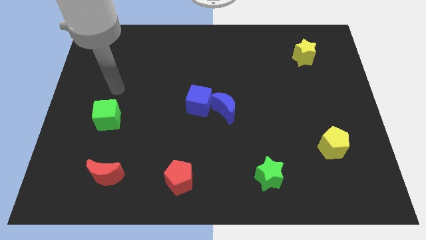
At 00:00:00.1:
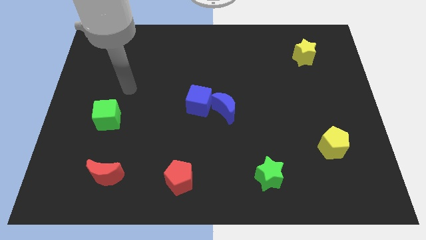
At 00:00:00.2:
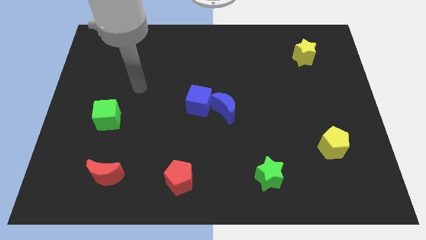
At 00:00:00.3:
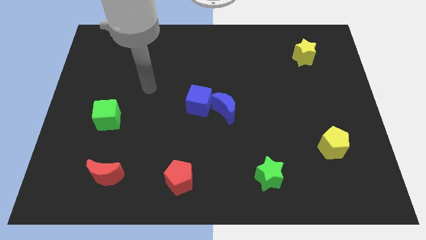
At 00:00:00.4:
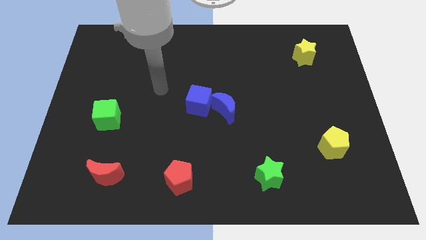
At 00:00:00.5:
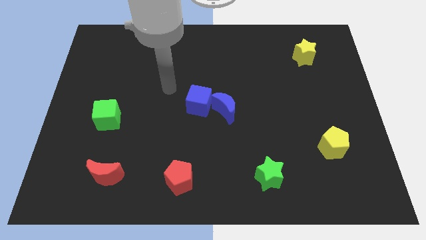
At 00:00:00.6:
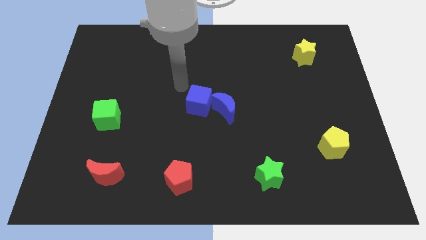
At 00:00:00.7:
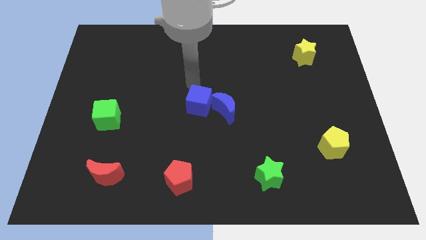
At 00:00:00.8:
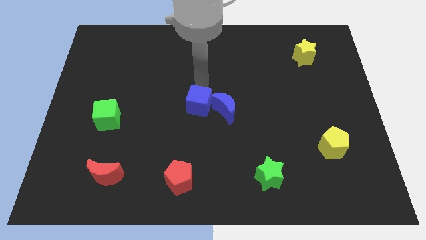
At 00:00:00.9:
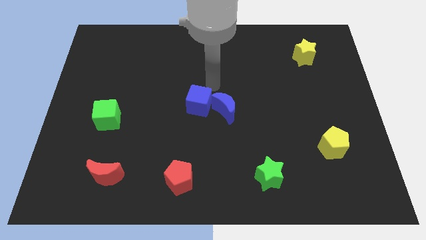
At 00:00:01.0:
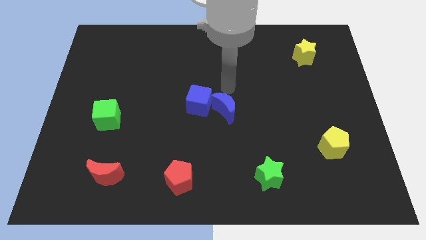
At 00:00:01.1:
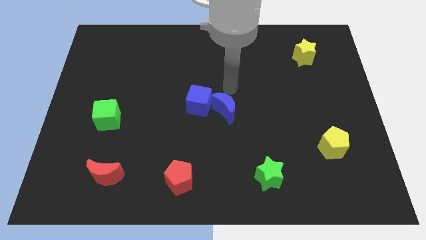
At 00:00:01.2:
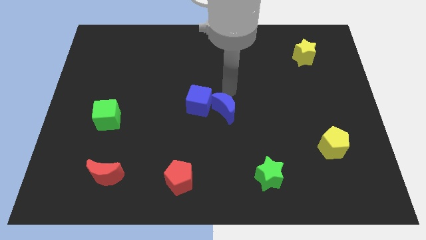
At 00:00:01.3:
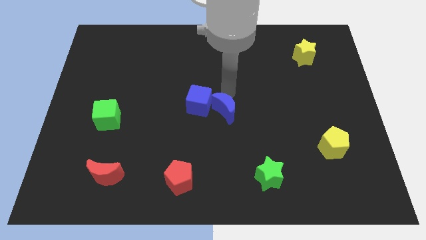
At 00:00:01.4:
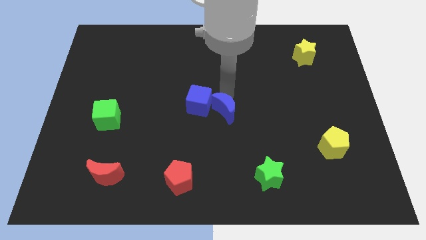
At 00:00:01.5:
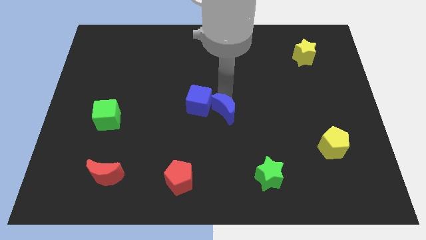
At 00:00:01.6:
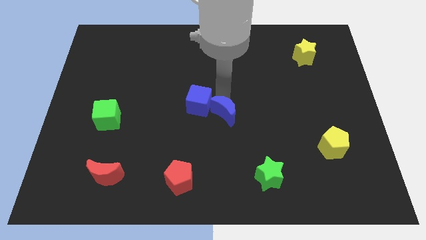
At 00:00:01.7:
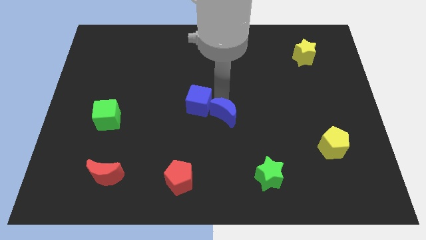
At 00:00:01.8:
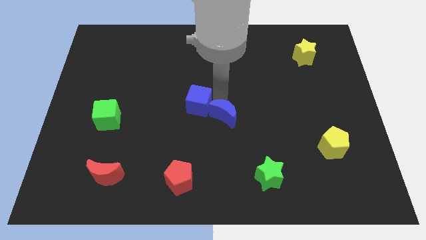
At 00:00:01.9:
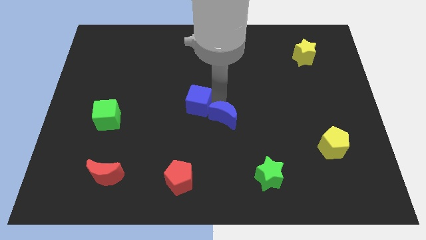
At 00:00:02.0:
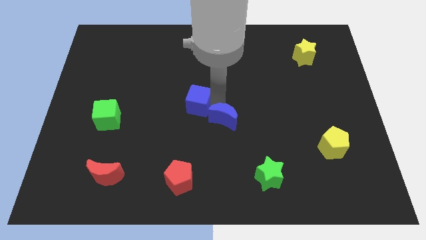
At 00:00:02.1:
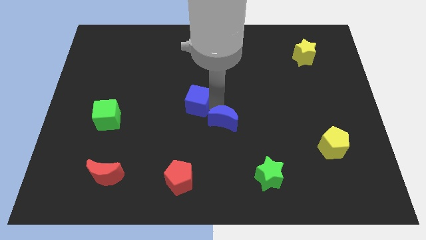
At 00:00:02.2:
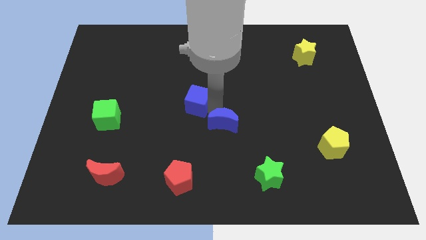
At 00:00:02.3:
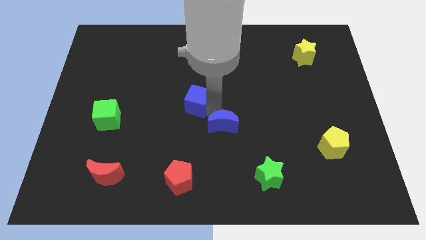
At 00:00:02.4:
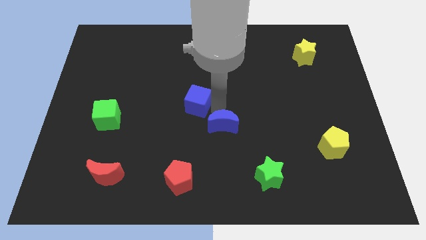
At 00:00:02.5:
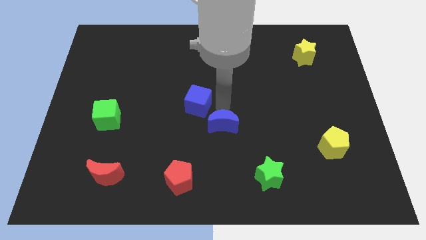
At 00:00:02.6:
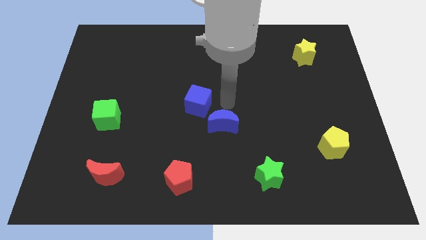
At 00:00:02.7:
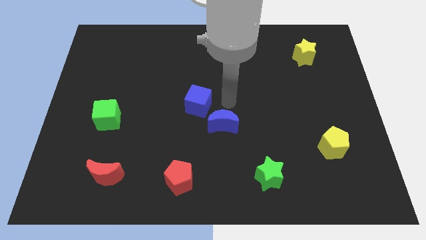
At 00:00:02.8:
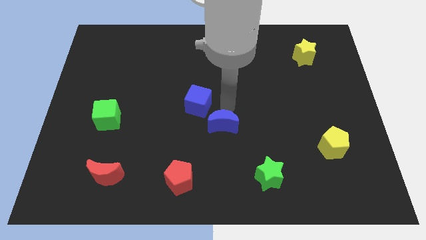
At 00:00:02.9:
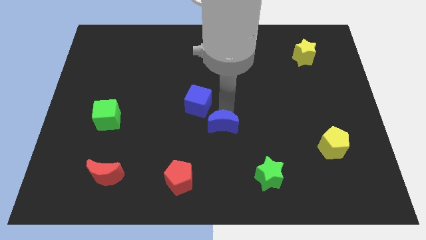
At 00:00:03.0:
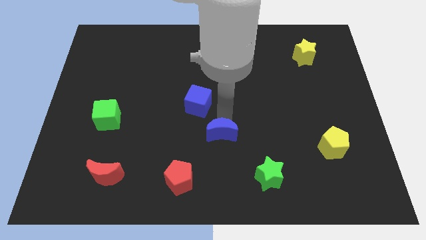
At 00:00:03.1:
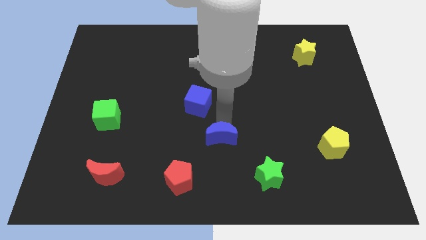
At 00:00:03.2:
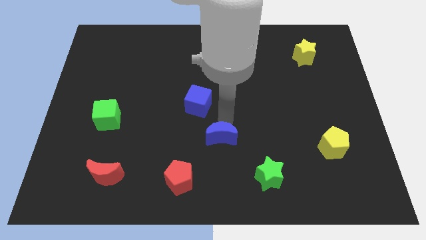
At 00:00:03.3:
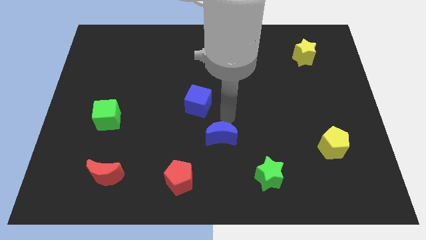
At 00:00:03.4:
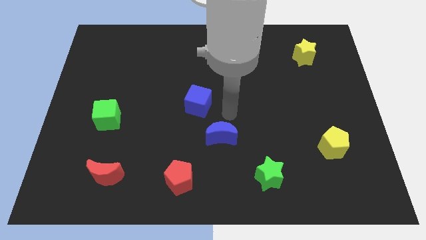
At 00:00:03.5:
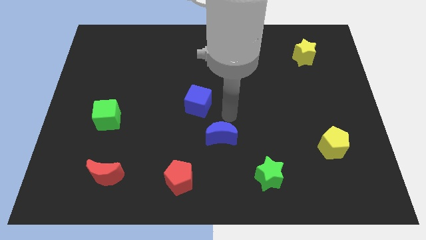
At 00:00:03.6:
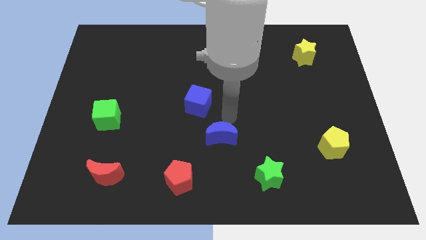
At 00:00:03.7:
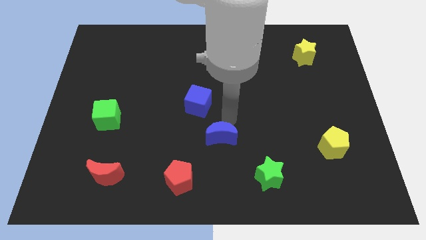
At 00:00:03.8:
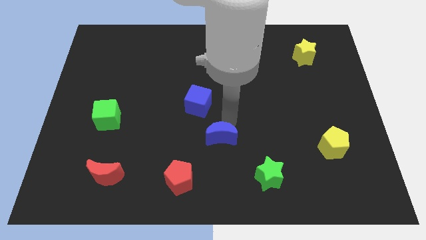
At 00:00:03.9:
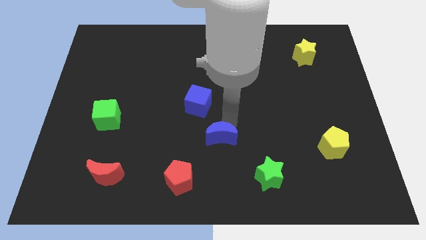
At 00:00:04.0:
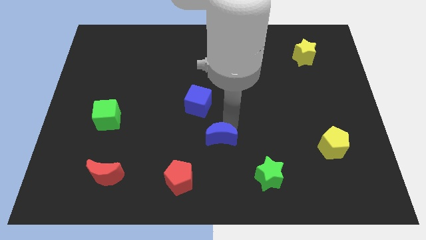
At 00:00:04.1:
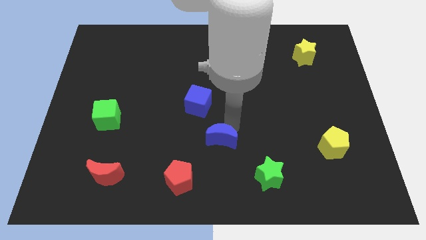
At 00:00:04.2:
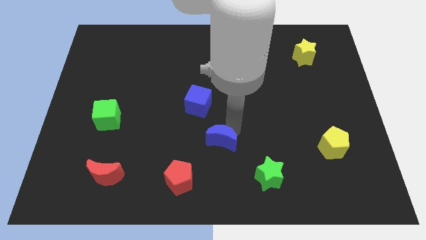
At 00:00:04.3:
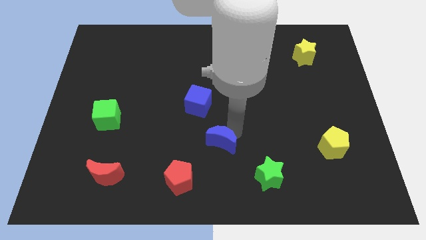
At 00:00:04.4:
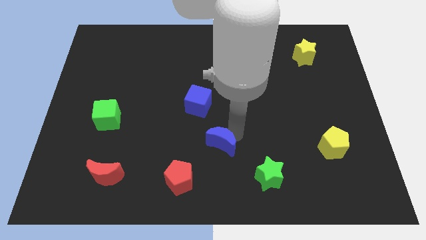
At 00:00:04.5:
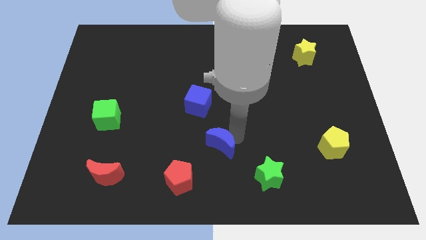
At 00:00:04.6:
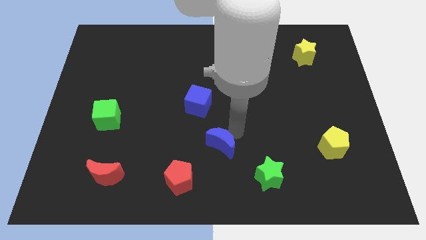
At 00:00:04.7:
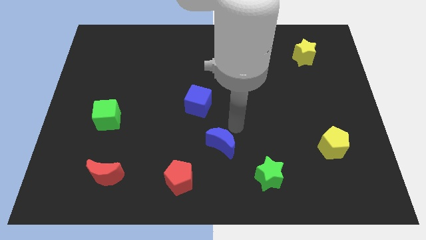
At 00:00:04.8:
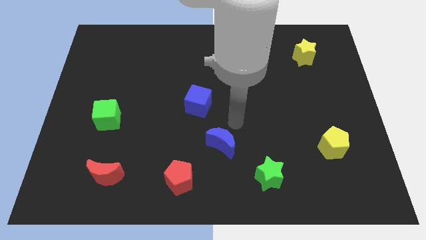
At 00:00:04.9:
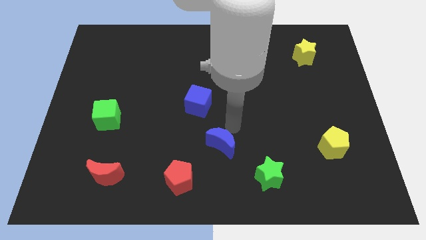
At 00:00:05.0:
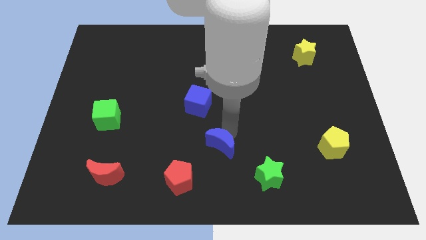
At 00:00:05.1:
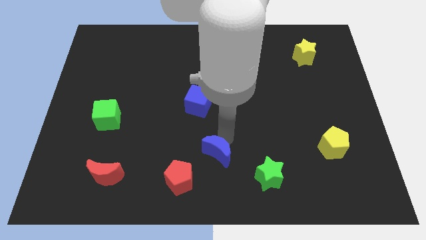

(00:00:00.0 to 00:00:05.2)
slide the blue moon to the bottom

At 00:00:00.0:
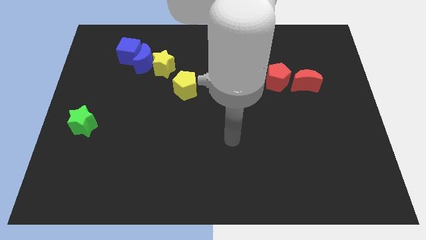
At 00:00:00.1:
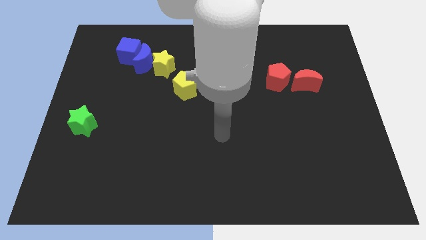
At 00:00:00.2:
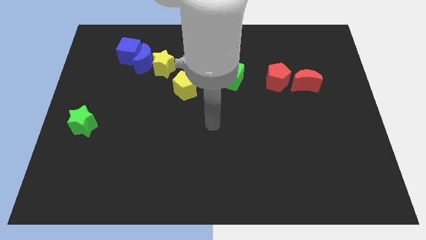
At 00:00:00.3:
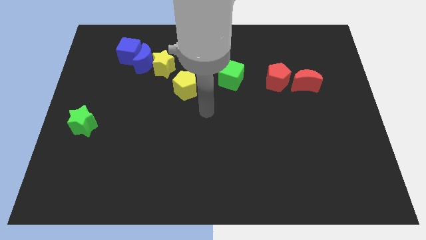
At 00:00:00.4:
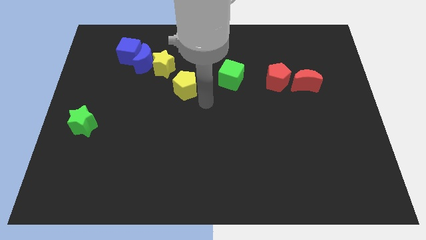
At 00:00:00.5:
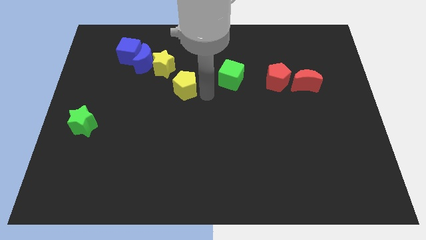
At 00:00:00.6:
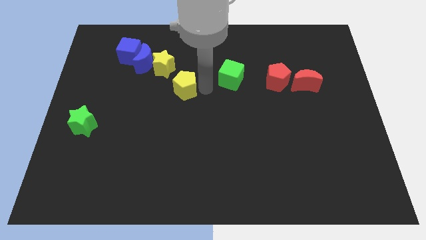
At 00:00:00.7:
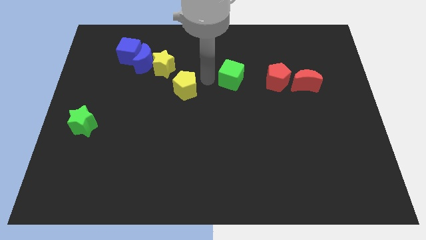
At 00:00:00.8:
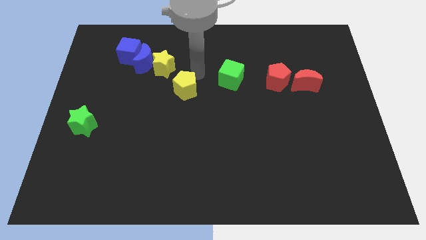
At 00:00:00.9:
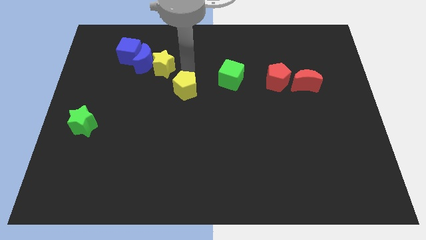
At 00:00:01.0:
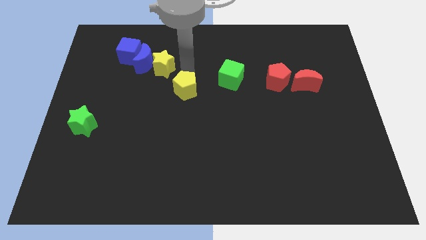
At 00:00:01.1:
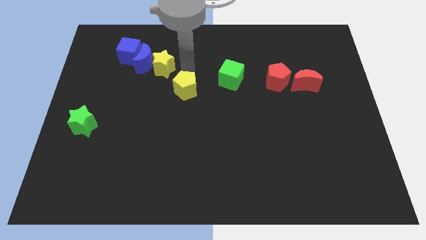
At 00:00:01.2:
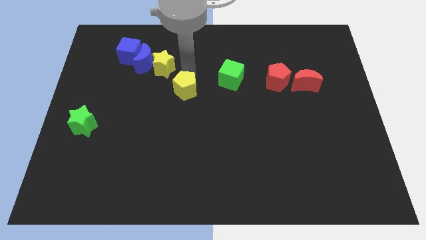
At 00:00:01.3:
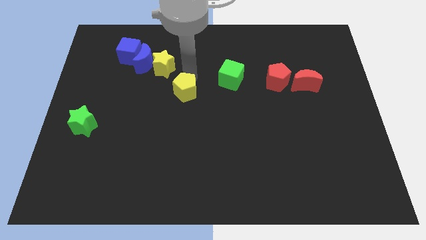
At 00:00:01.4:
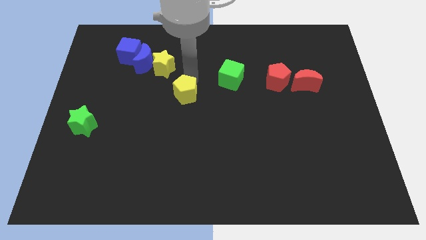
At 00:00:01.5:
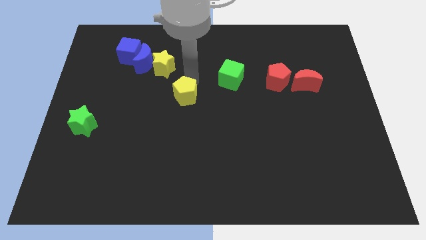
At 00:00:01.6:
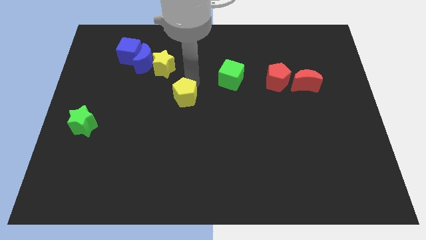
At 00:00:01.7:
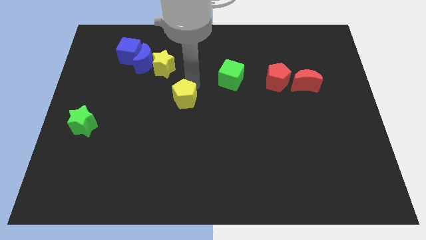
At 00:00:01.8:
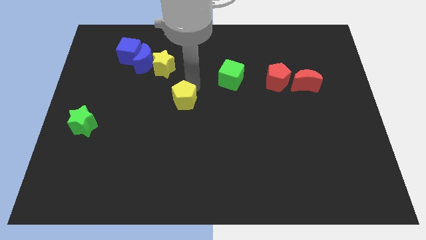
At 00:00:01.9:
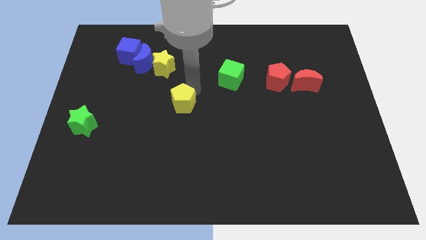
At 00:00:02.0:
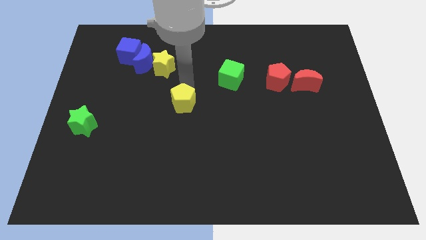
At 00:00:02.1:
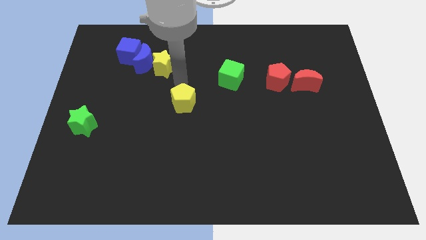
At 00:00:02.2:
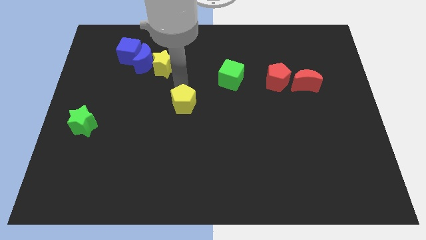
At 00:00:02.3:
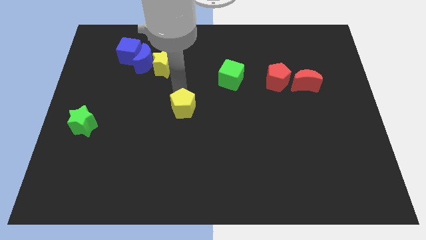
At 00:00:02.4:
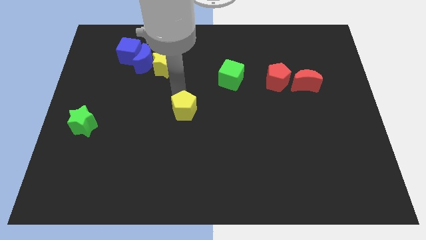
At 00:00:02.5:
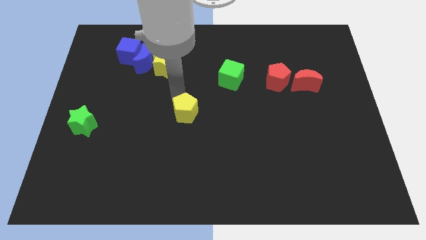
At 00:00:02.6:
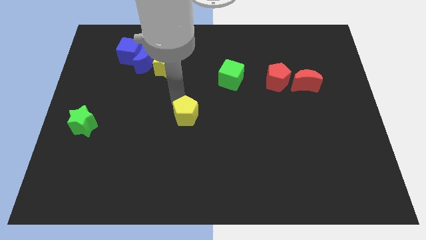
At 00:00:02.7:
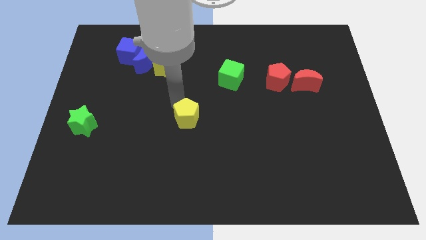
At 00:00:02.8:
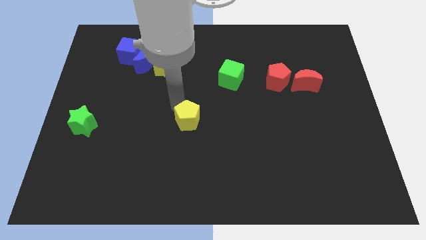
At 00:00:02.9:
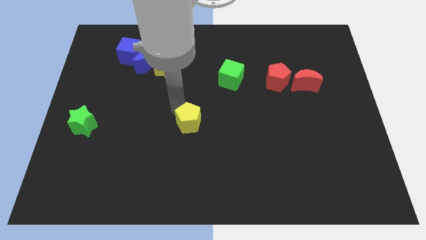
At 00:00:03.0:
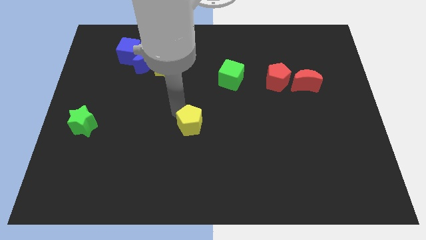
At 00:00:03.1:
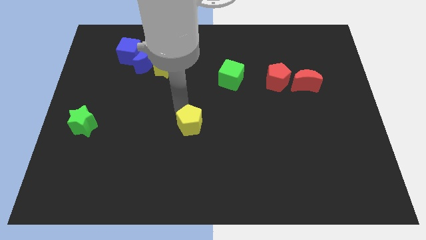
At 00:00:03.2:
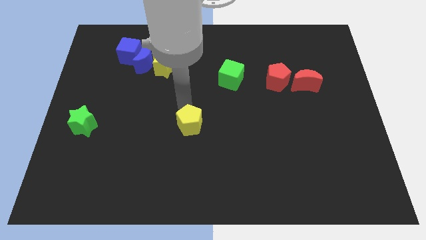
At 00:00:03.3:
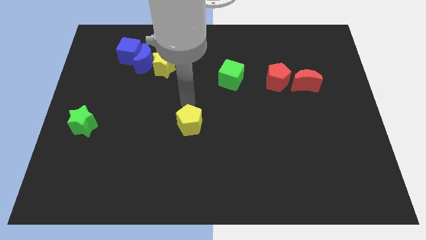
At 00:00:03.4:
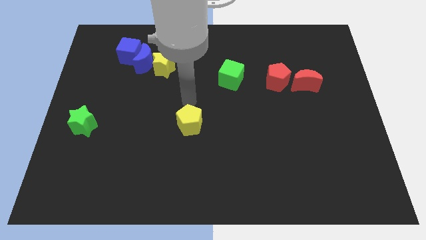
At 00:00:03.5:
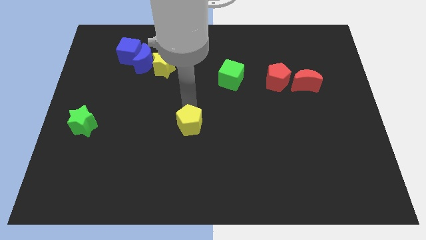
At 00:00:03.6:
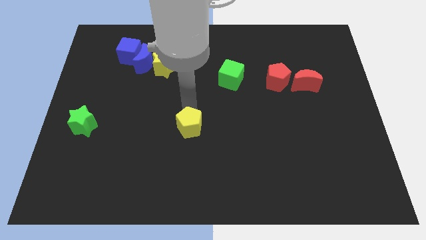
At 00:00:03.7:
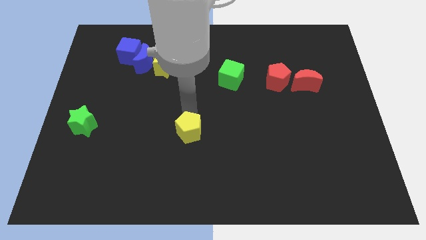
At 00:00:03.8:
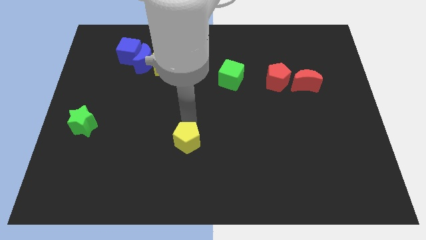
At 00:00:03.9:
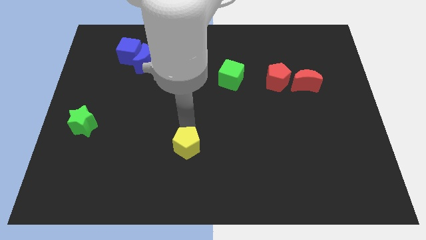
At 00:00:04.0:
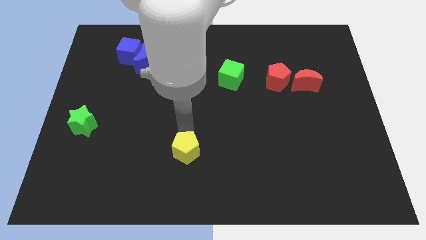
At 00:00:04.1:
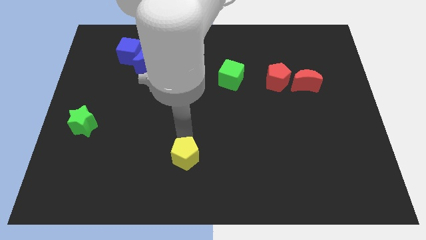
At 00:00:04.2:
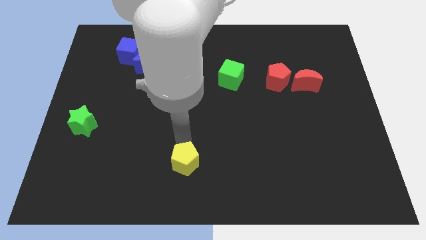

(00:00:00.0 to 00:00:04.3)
put the yellow pentagon to the bottom
